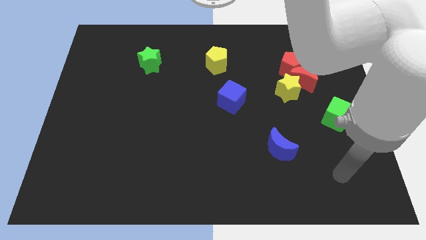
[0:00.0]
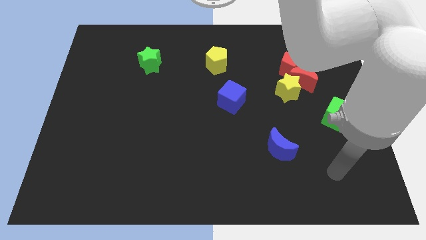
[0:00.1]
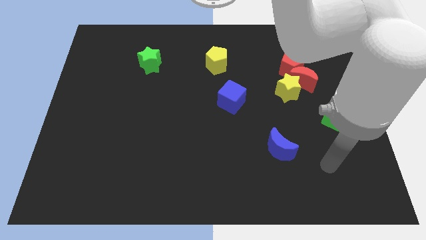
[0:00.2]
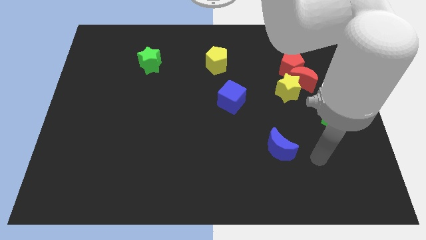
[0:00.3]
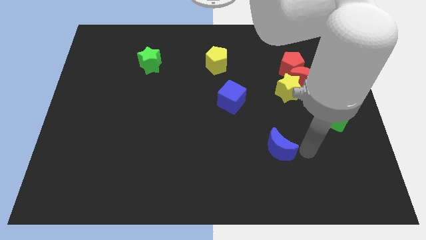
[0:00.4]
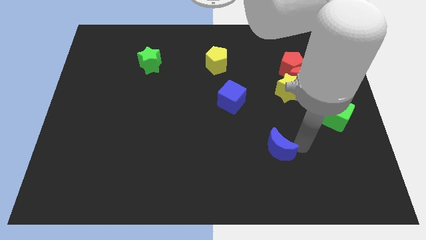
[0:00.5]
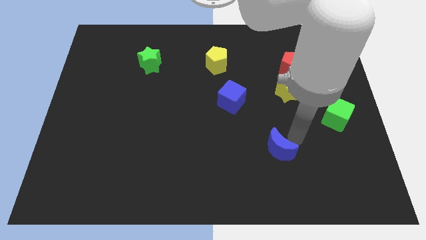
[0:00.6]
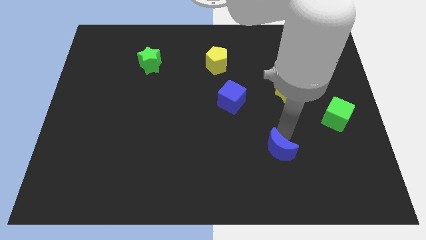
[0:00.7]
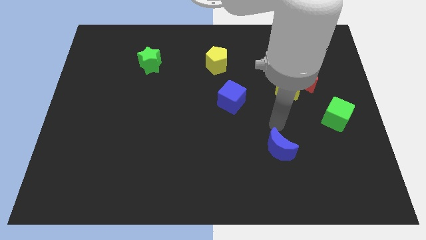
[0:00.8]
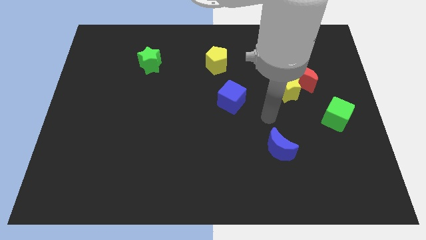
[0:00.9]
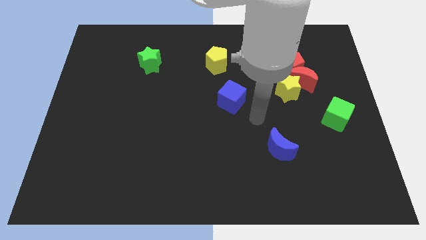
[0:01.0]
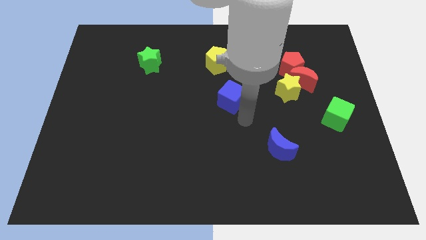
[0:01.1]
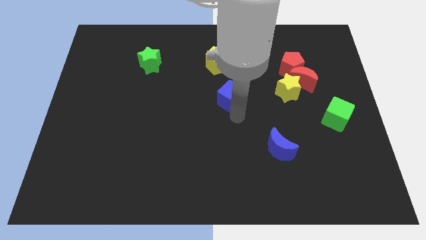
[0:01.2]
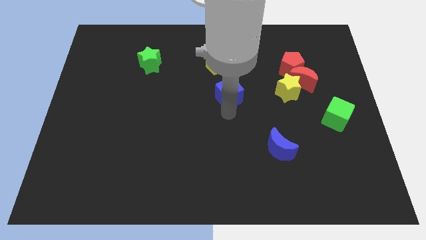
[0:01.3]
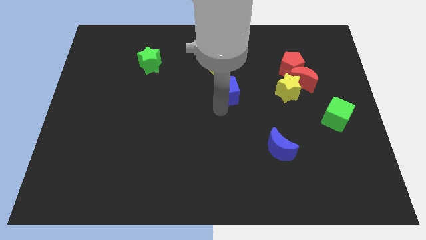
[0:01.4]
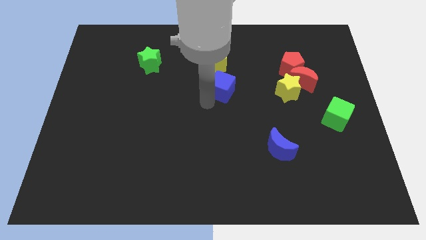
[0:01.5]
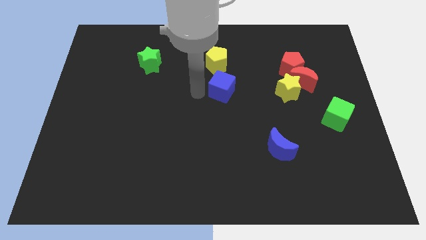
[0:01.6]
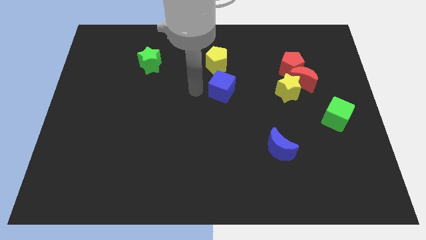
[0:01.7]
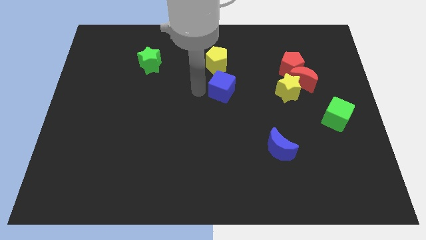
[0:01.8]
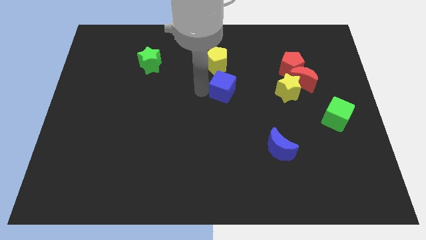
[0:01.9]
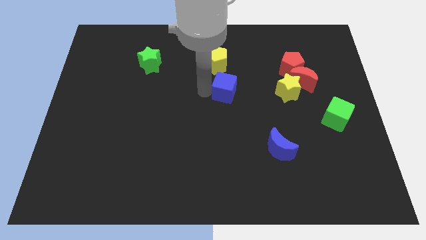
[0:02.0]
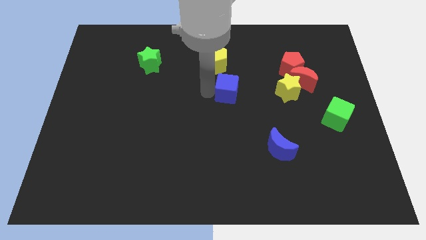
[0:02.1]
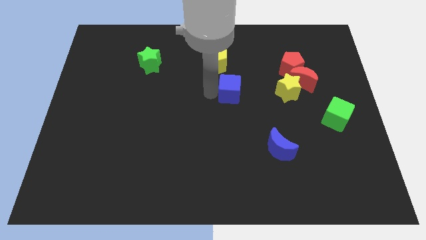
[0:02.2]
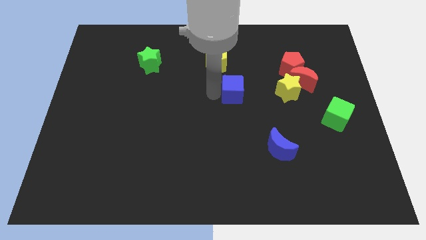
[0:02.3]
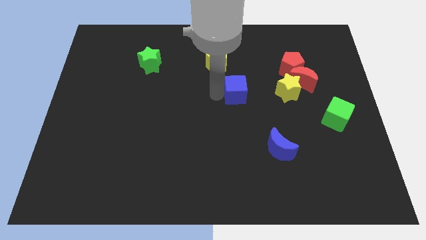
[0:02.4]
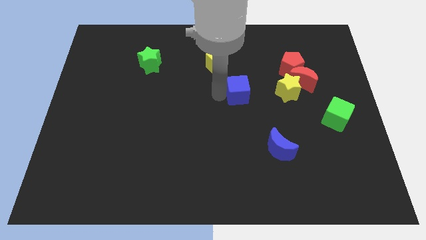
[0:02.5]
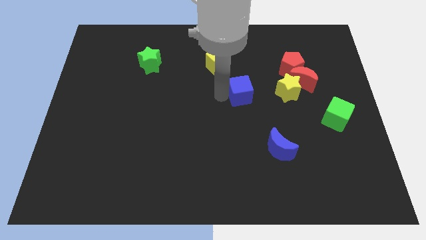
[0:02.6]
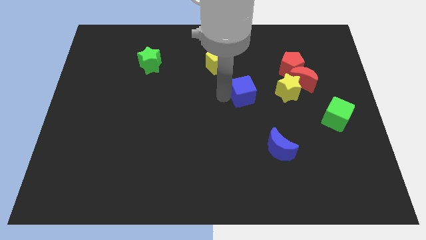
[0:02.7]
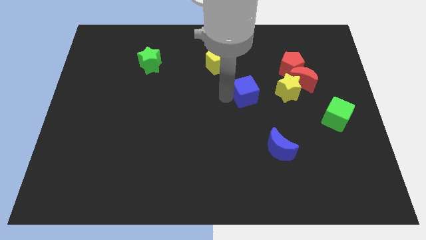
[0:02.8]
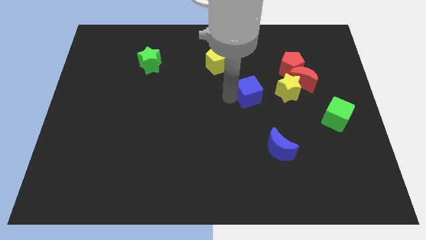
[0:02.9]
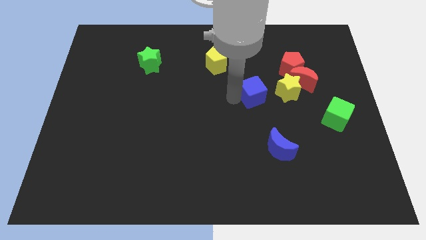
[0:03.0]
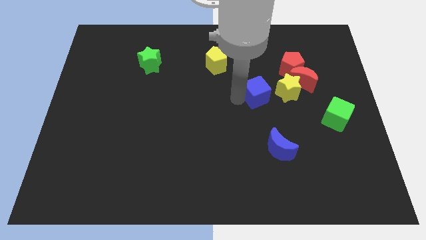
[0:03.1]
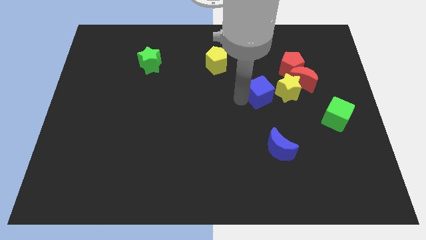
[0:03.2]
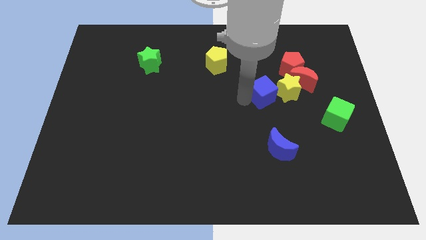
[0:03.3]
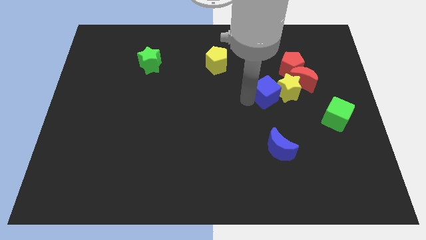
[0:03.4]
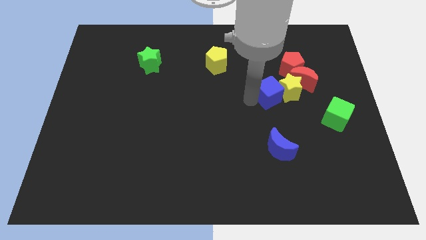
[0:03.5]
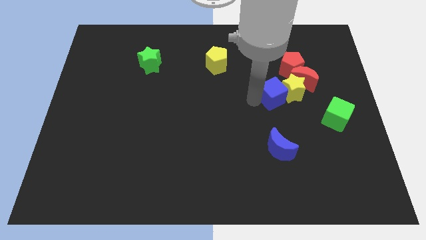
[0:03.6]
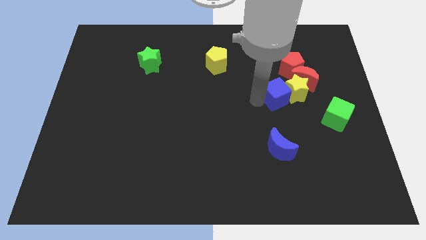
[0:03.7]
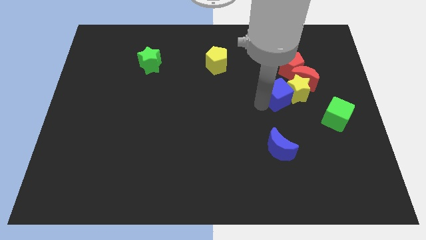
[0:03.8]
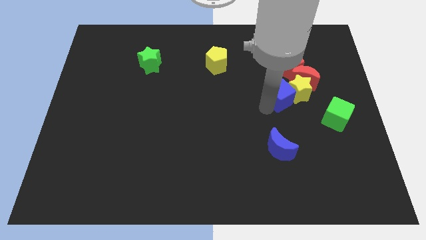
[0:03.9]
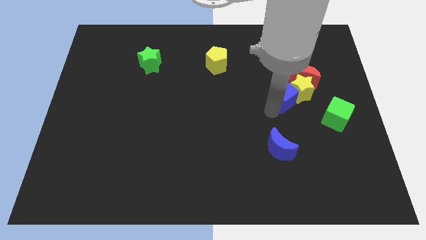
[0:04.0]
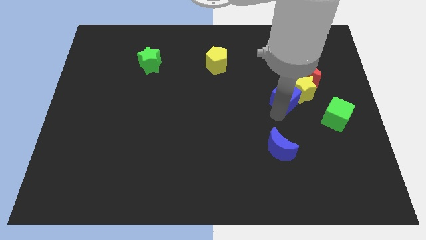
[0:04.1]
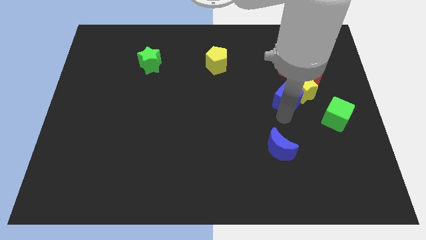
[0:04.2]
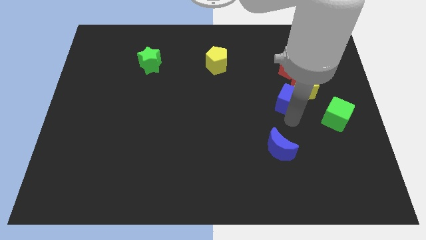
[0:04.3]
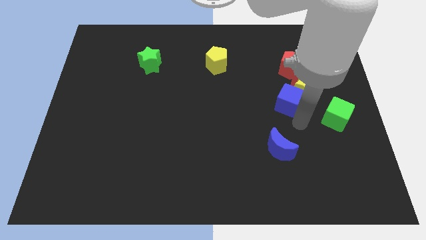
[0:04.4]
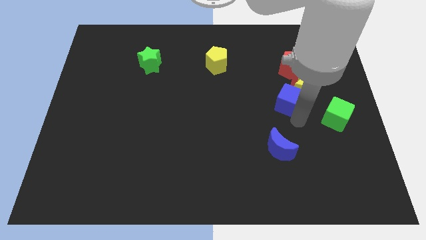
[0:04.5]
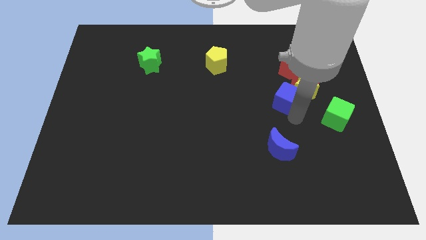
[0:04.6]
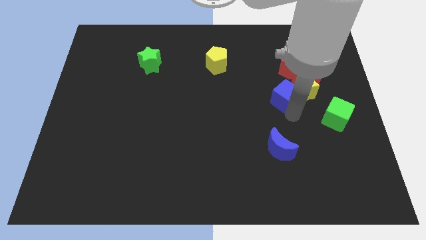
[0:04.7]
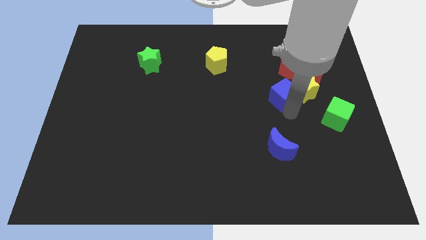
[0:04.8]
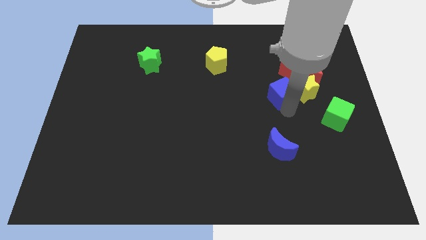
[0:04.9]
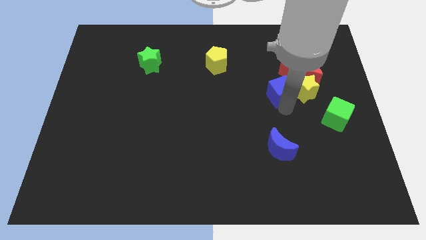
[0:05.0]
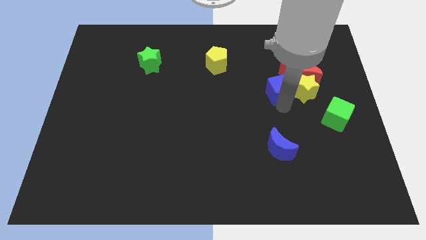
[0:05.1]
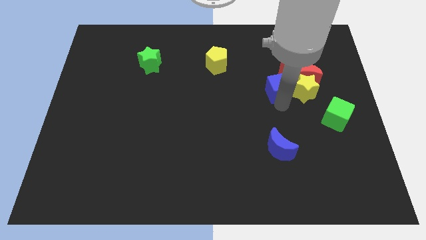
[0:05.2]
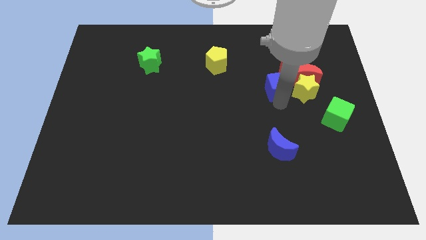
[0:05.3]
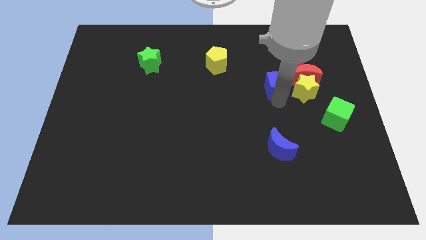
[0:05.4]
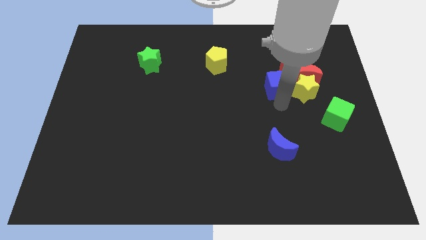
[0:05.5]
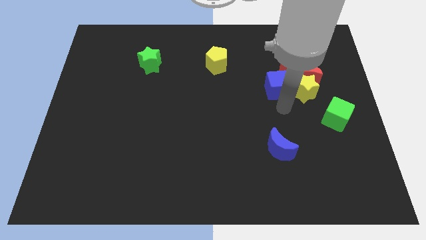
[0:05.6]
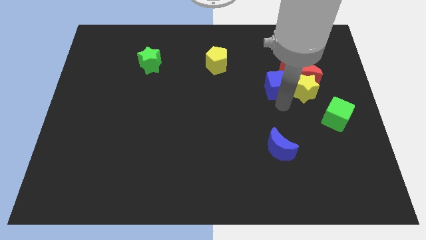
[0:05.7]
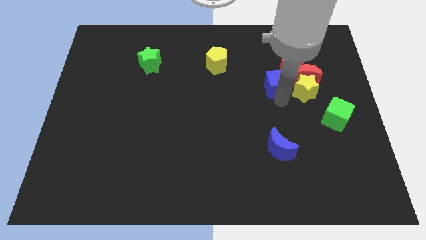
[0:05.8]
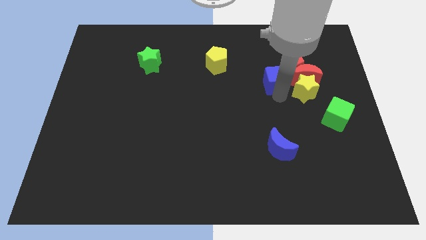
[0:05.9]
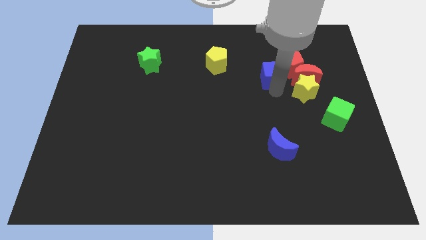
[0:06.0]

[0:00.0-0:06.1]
put the blue cube to the red pentagon

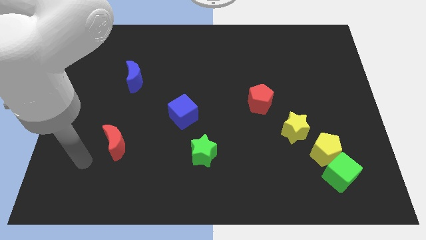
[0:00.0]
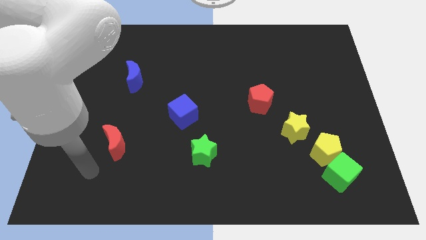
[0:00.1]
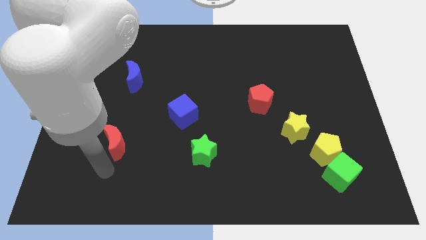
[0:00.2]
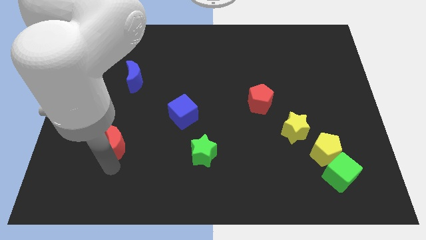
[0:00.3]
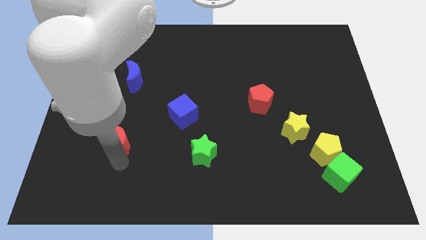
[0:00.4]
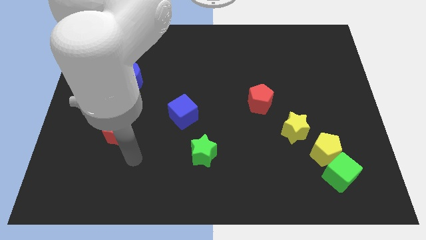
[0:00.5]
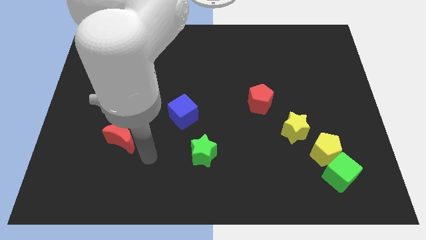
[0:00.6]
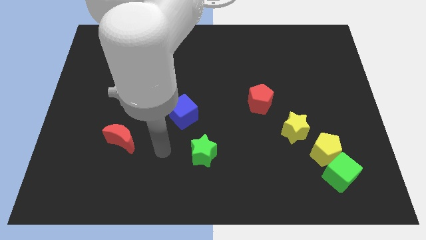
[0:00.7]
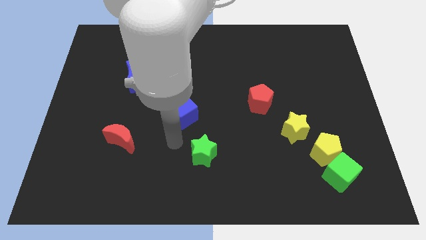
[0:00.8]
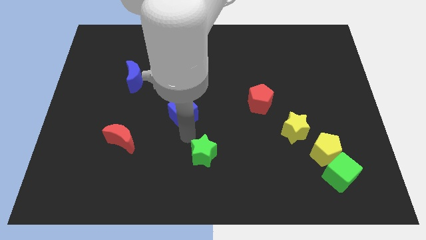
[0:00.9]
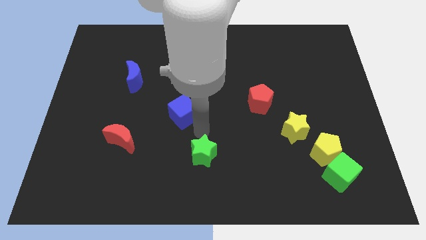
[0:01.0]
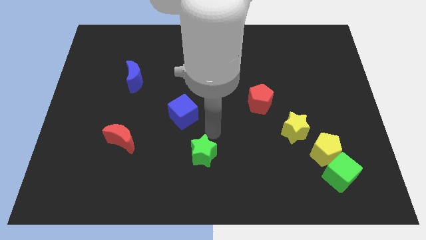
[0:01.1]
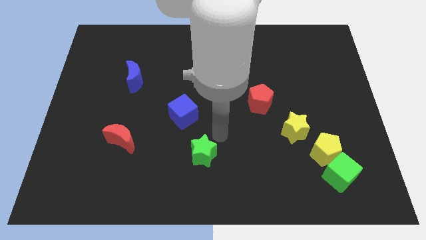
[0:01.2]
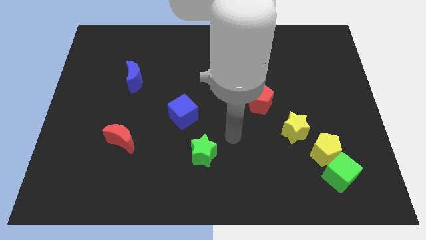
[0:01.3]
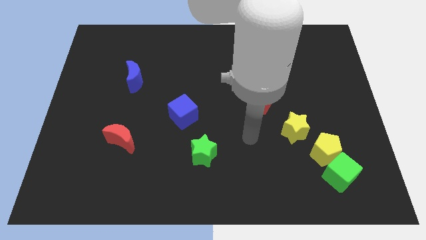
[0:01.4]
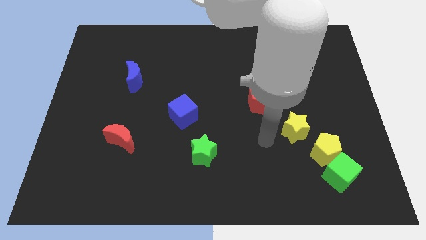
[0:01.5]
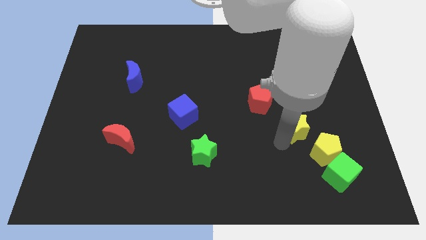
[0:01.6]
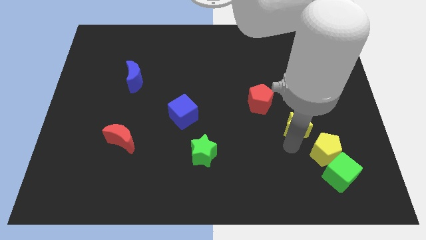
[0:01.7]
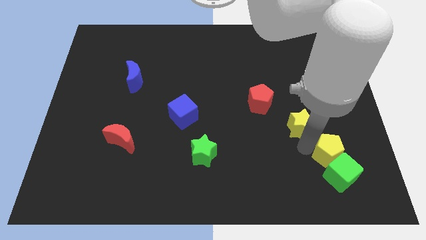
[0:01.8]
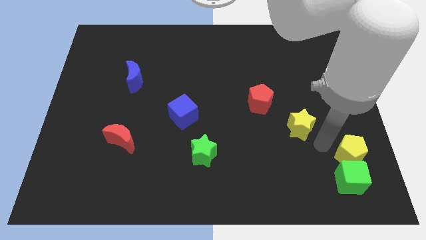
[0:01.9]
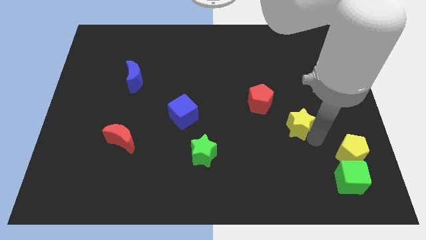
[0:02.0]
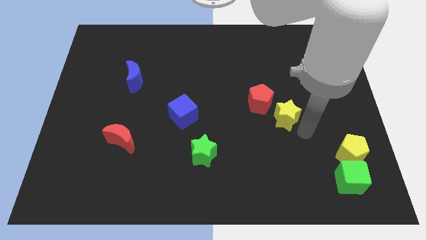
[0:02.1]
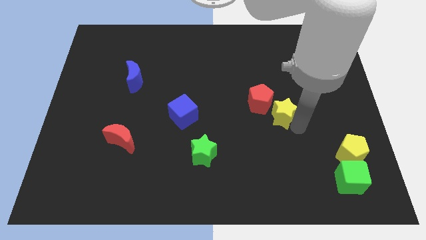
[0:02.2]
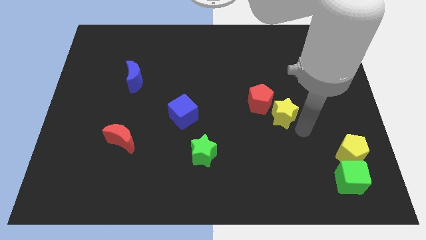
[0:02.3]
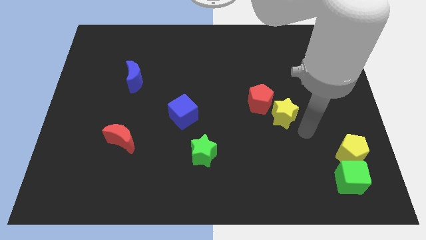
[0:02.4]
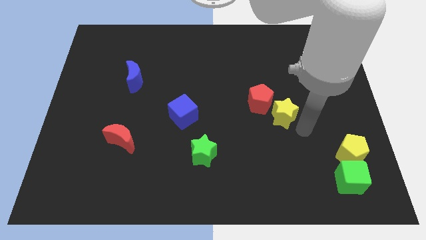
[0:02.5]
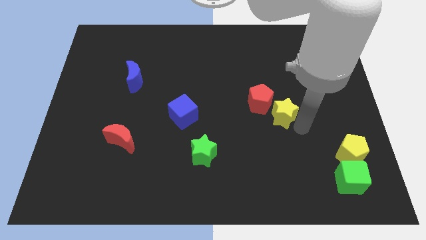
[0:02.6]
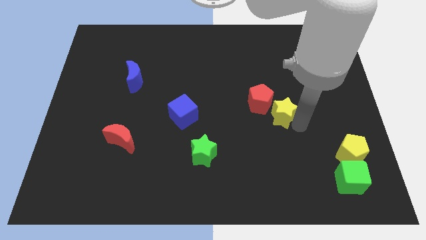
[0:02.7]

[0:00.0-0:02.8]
move the yellow star to the red pentagon
